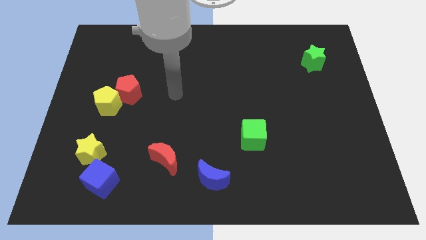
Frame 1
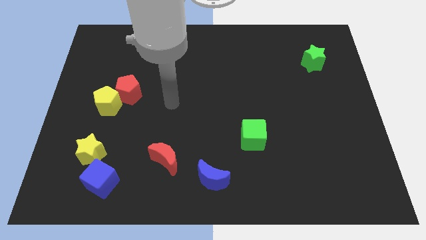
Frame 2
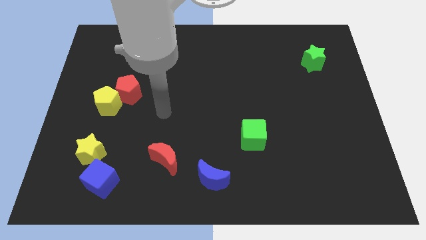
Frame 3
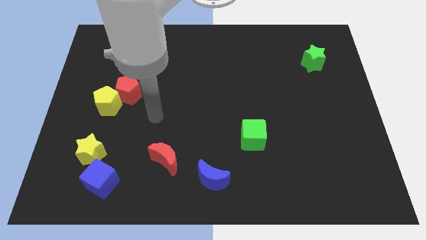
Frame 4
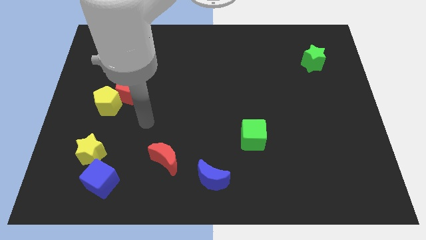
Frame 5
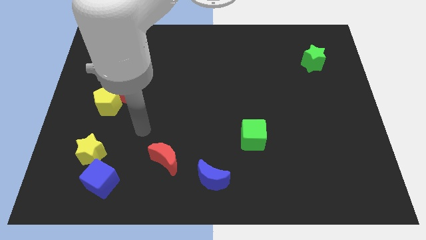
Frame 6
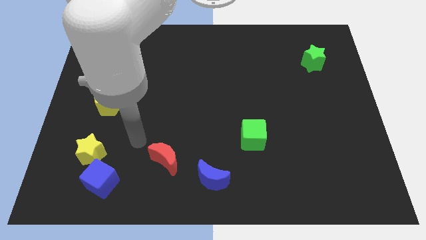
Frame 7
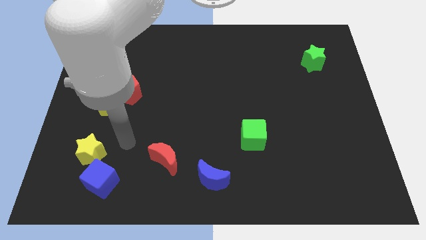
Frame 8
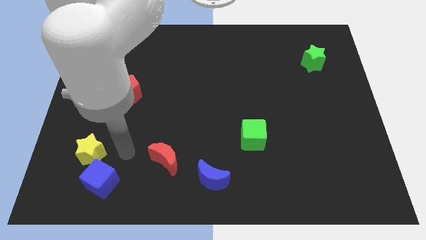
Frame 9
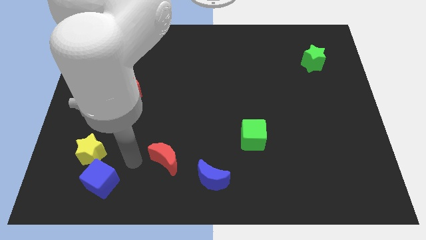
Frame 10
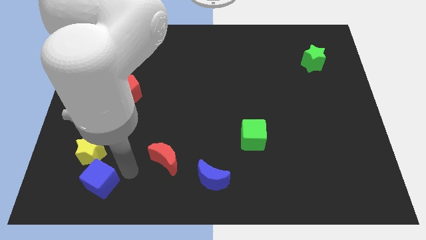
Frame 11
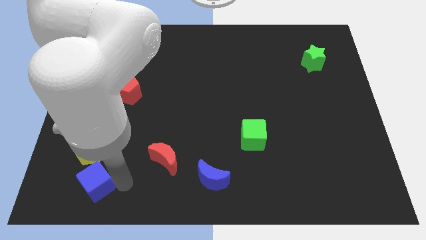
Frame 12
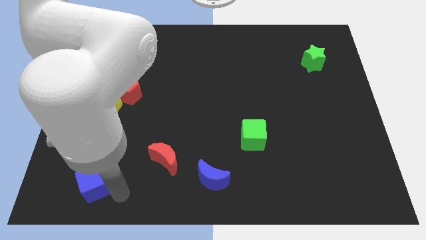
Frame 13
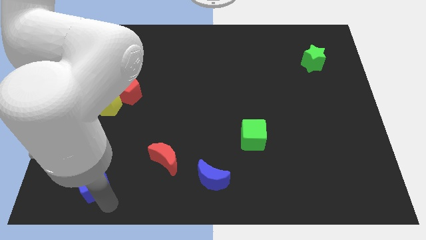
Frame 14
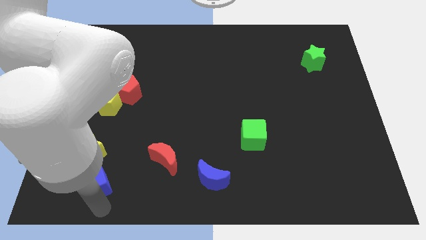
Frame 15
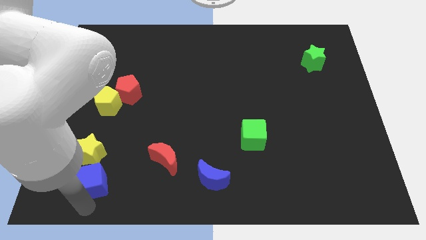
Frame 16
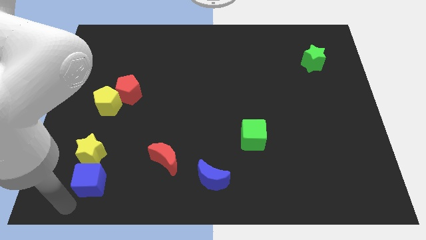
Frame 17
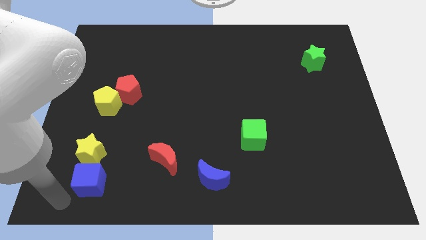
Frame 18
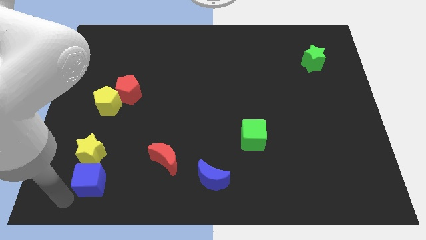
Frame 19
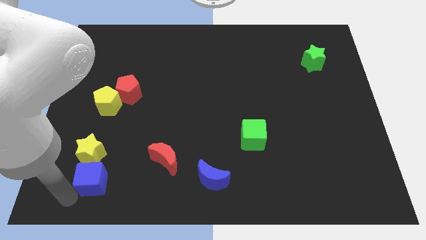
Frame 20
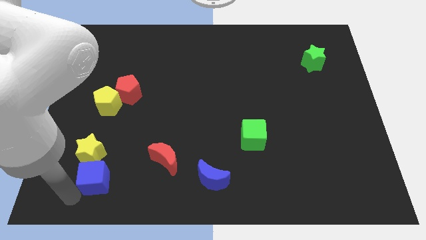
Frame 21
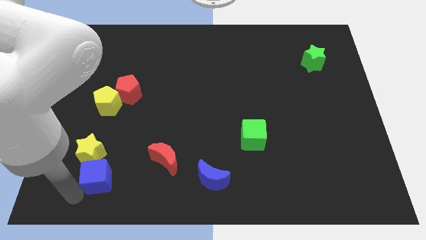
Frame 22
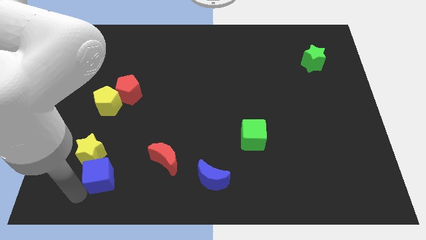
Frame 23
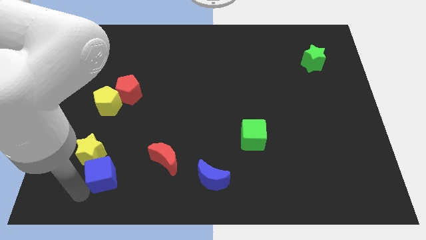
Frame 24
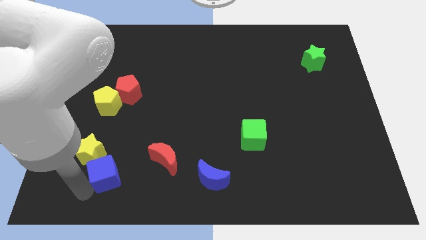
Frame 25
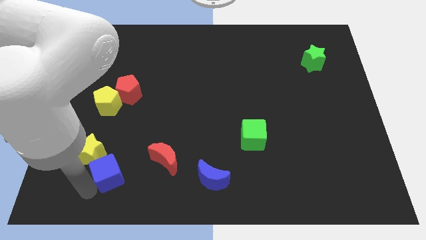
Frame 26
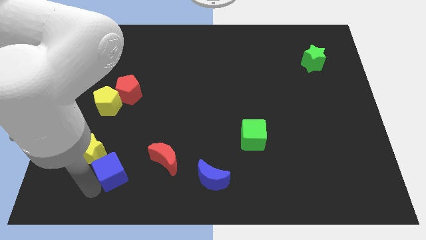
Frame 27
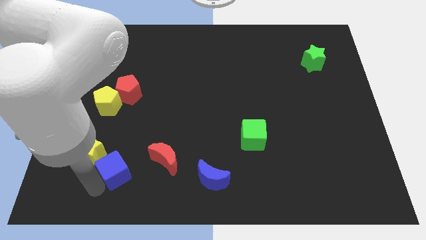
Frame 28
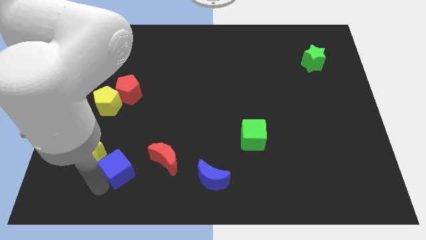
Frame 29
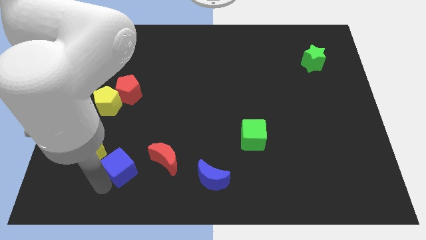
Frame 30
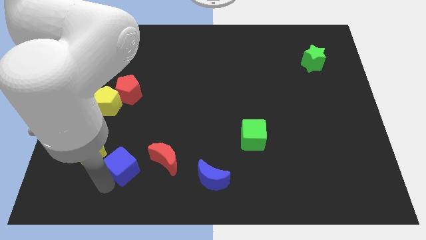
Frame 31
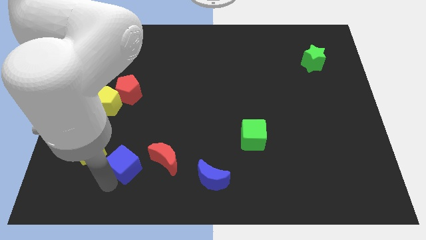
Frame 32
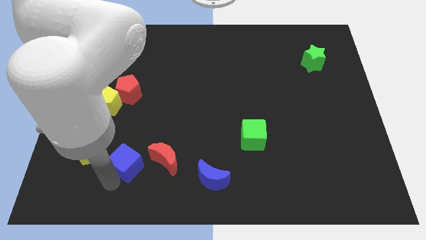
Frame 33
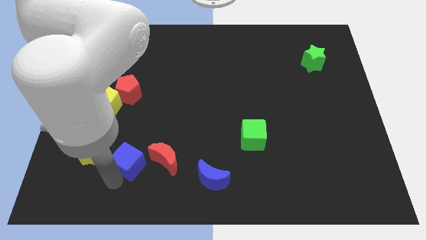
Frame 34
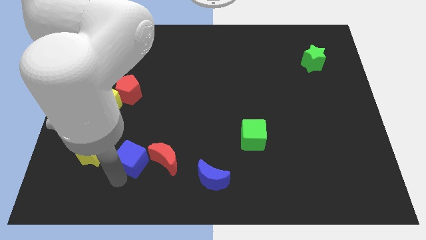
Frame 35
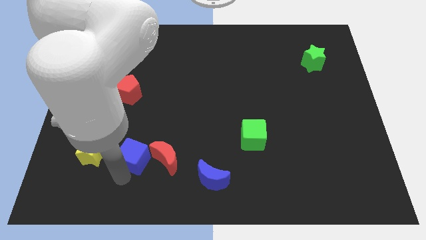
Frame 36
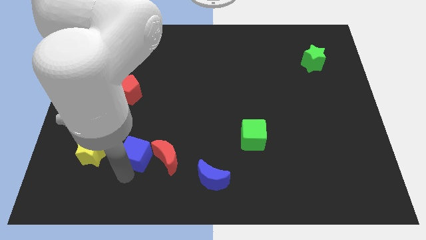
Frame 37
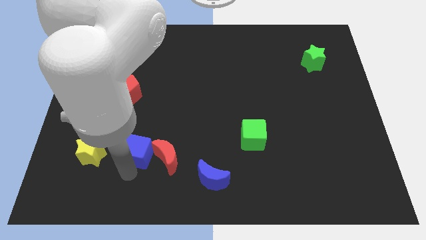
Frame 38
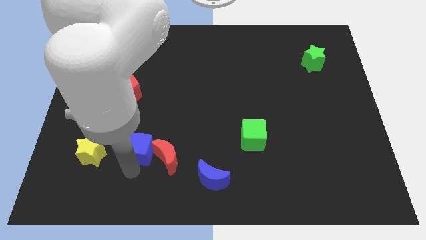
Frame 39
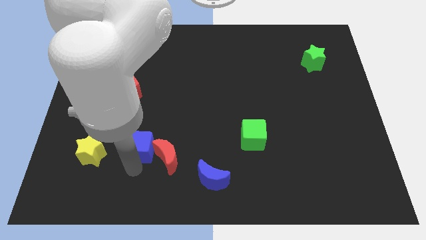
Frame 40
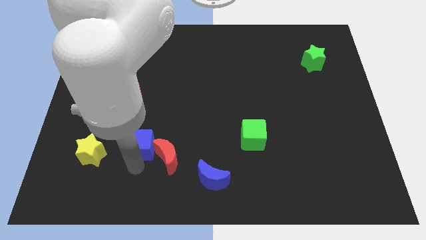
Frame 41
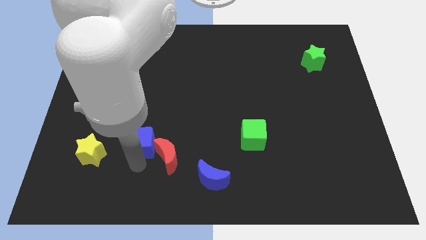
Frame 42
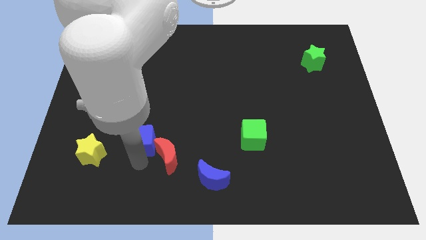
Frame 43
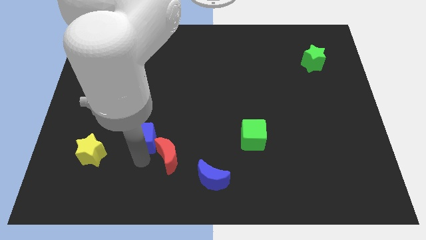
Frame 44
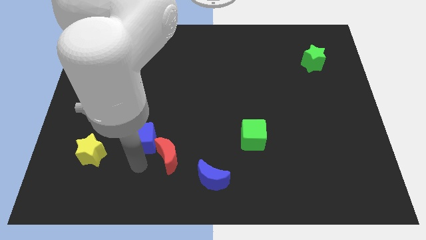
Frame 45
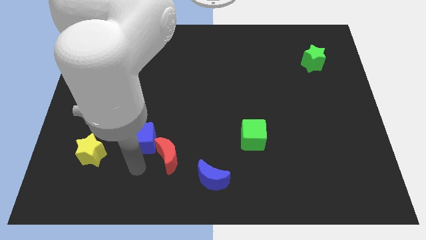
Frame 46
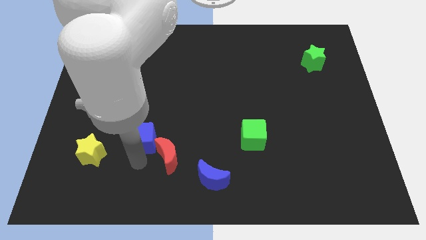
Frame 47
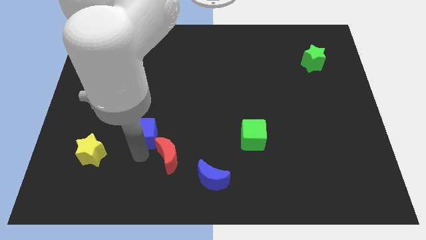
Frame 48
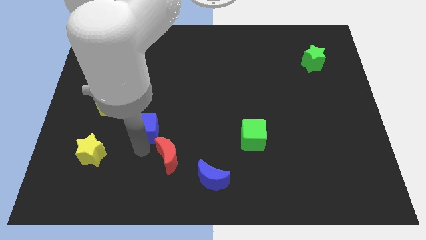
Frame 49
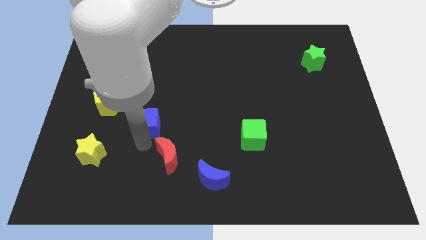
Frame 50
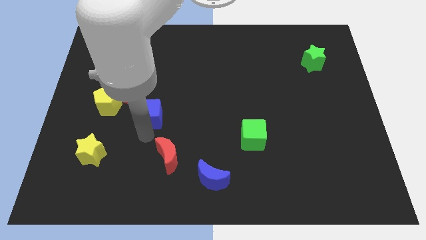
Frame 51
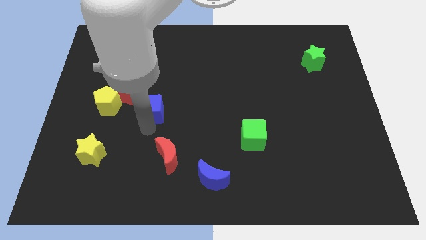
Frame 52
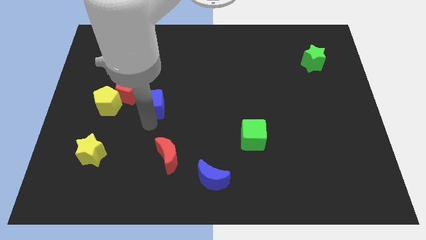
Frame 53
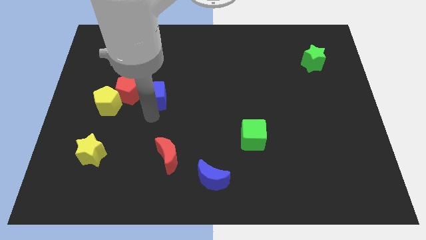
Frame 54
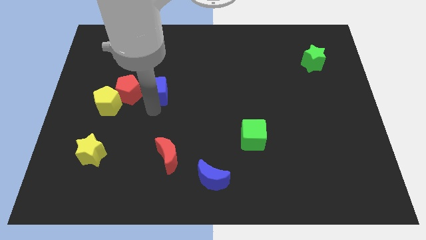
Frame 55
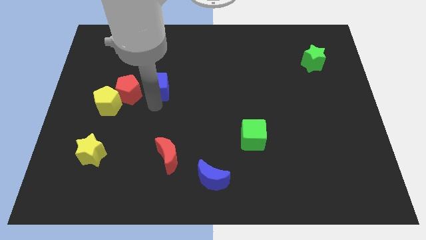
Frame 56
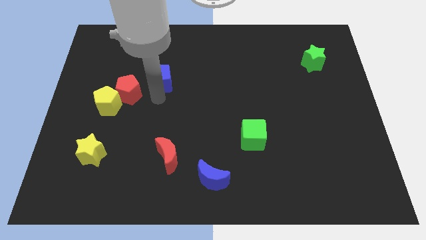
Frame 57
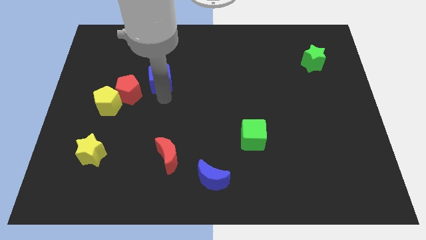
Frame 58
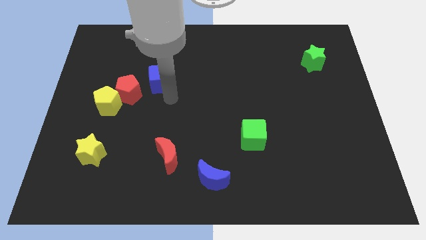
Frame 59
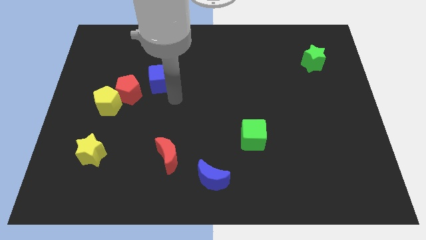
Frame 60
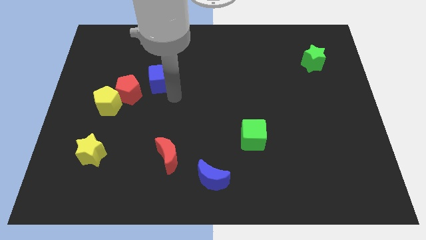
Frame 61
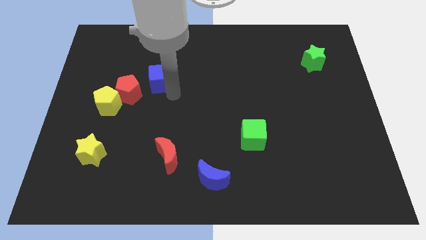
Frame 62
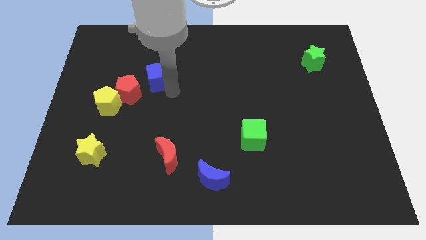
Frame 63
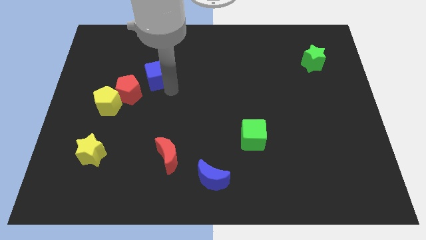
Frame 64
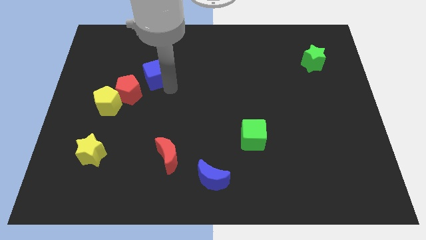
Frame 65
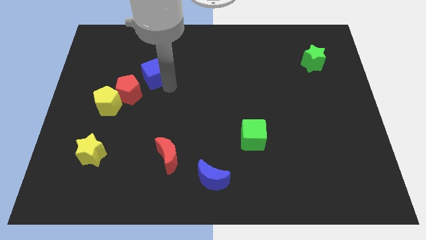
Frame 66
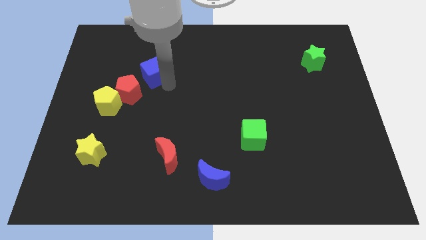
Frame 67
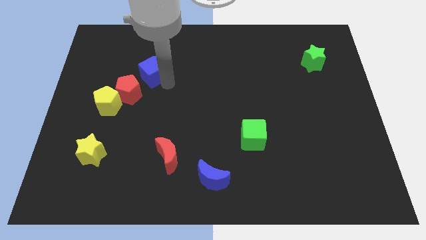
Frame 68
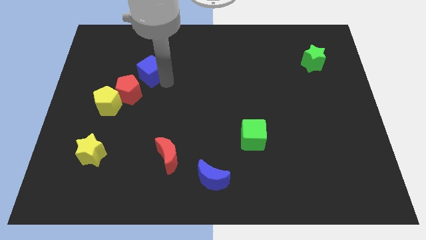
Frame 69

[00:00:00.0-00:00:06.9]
slide the blue cube to the top side of the red pentagon
